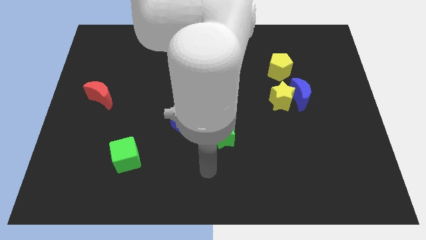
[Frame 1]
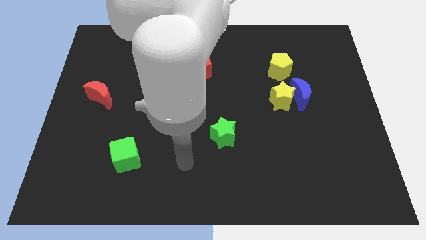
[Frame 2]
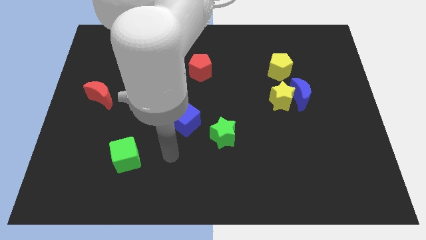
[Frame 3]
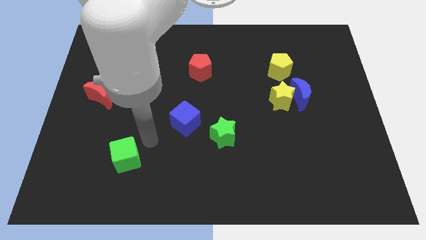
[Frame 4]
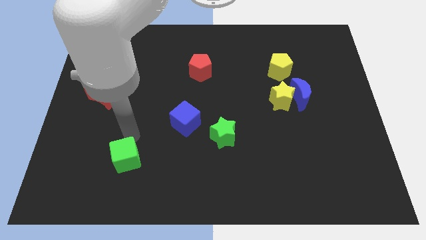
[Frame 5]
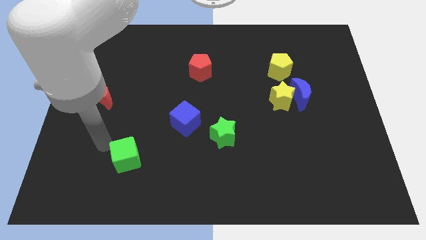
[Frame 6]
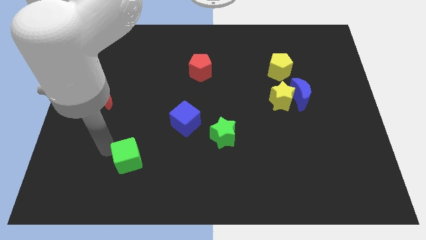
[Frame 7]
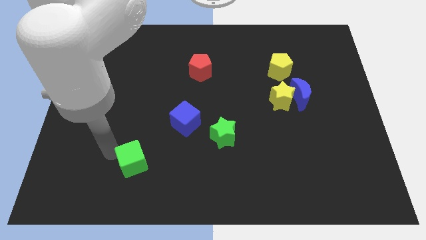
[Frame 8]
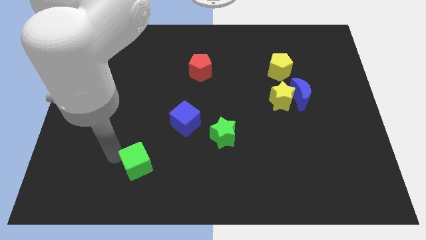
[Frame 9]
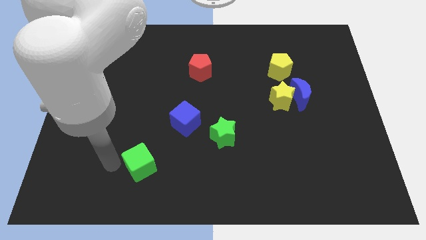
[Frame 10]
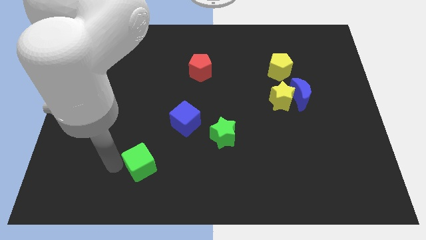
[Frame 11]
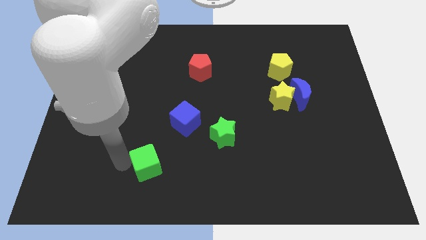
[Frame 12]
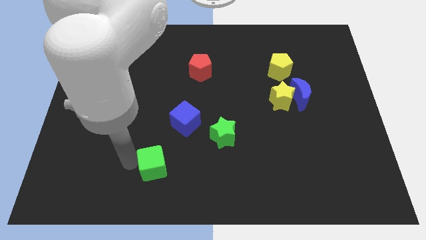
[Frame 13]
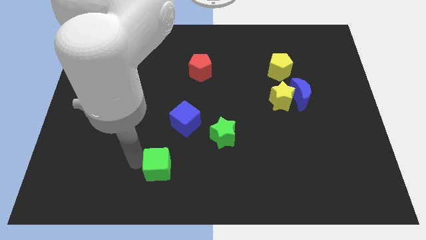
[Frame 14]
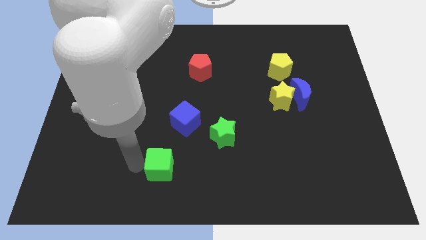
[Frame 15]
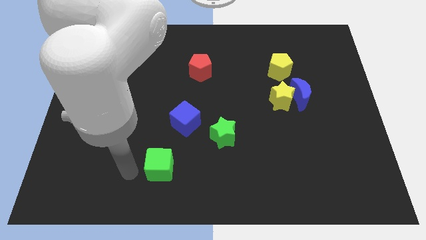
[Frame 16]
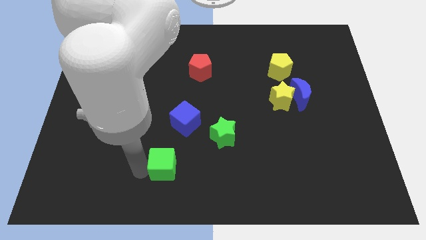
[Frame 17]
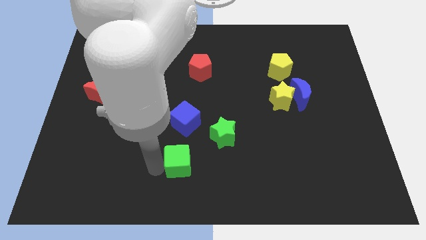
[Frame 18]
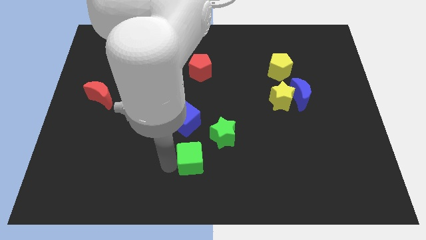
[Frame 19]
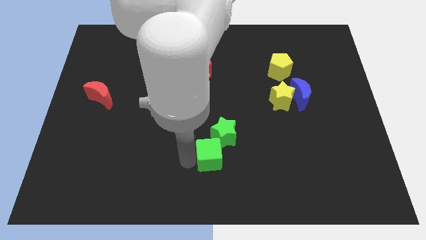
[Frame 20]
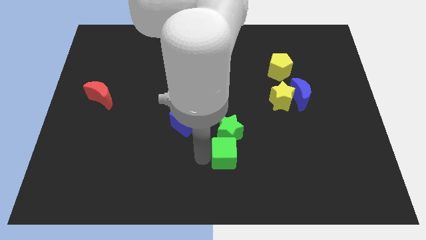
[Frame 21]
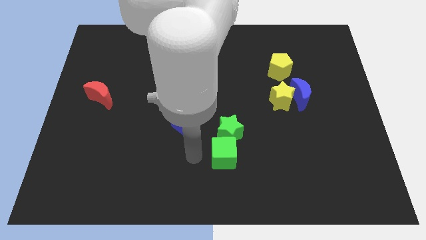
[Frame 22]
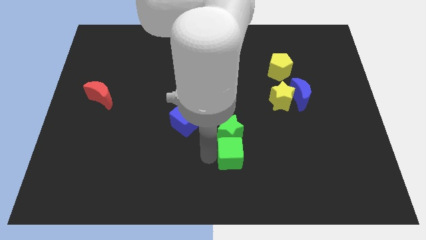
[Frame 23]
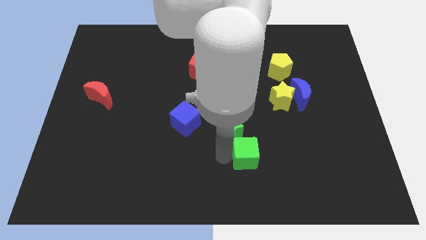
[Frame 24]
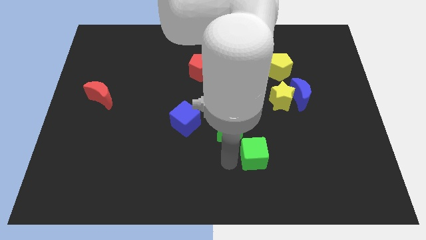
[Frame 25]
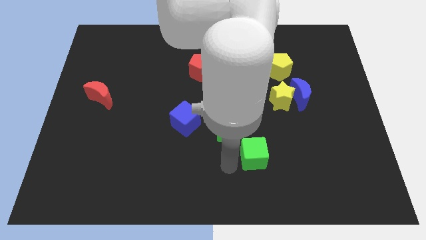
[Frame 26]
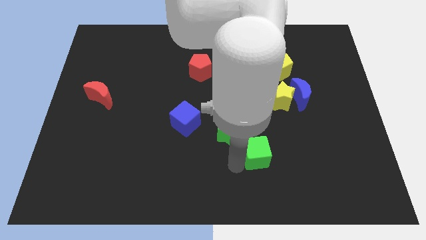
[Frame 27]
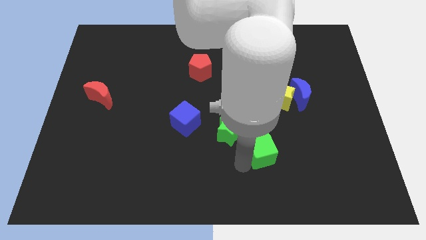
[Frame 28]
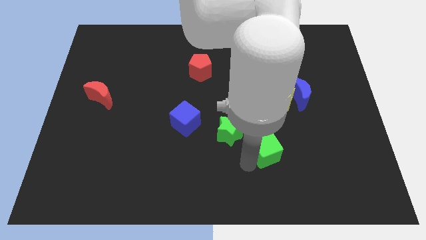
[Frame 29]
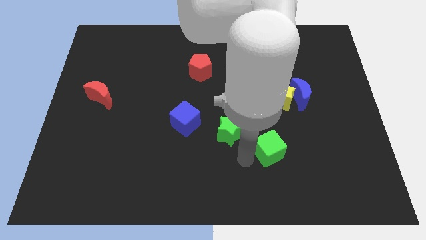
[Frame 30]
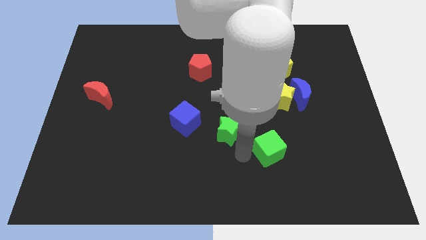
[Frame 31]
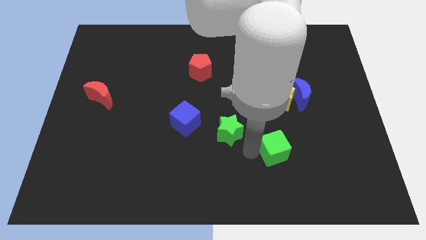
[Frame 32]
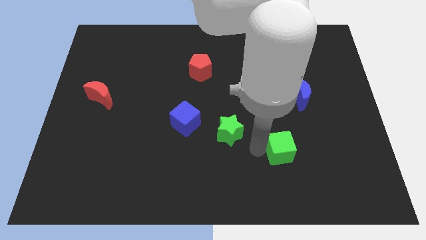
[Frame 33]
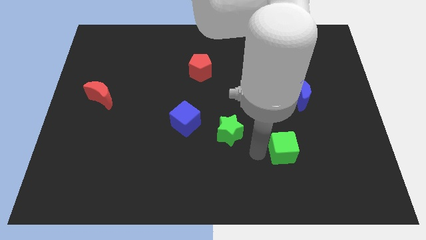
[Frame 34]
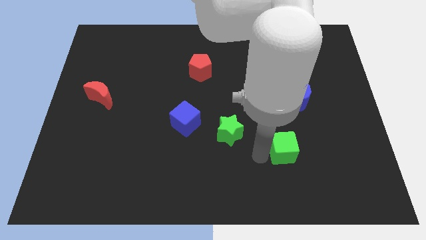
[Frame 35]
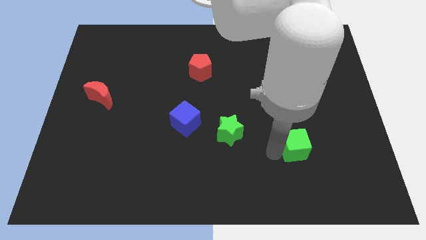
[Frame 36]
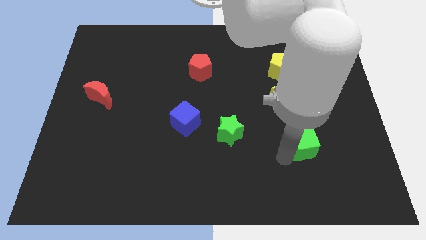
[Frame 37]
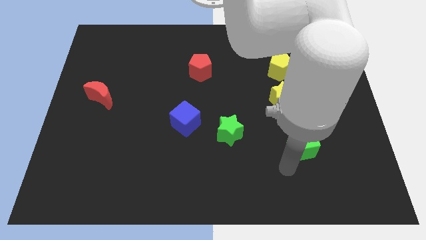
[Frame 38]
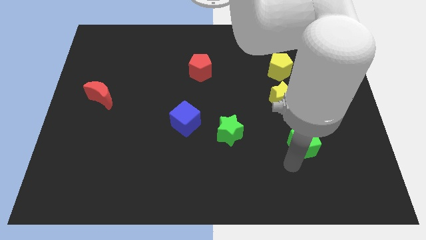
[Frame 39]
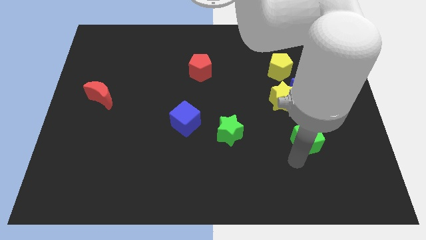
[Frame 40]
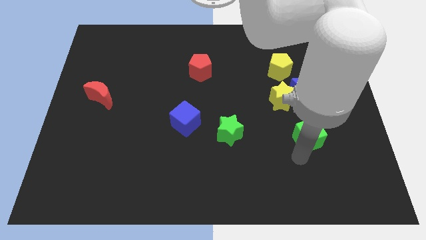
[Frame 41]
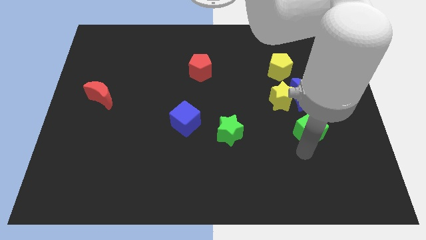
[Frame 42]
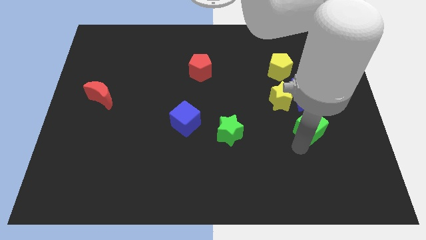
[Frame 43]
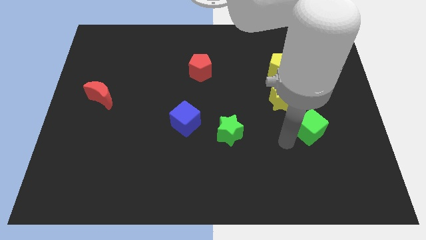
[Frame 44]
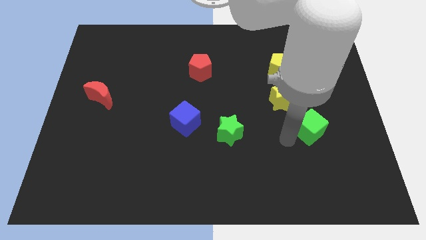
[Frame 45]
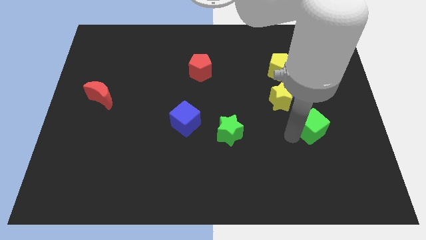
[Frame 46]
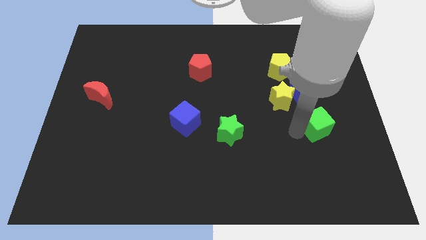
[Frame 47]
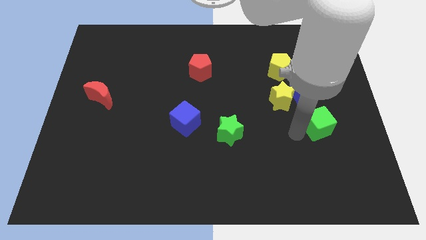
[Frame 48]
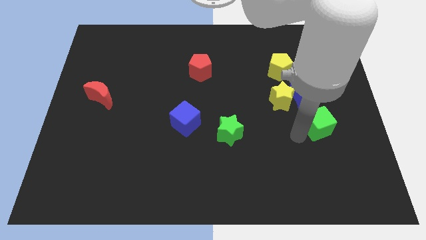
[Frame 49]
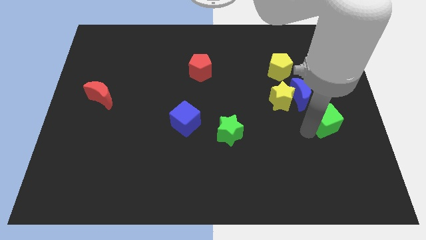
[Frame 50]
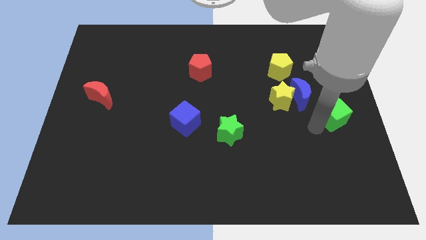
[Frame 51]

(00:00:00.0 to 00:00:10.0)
slide the green cube to the right side of the board

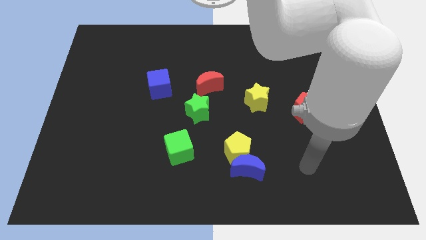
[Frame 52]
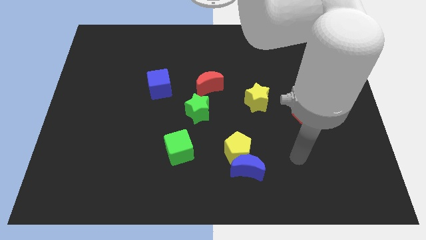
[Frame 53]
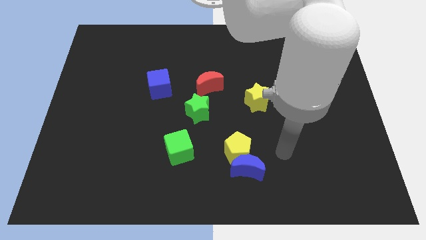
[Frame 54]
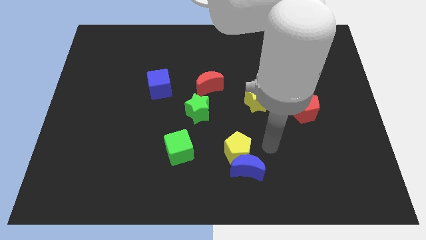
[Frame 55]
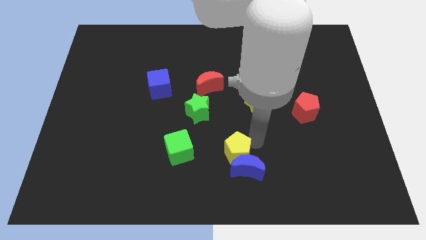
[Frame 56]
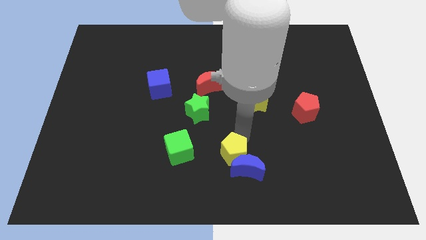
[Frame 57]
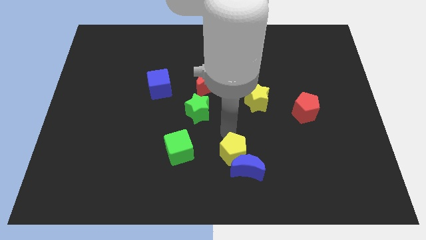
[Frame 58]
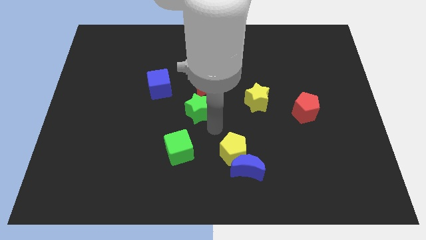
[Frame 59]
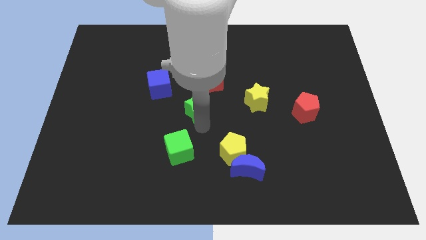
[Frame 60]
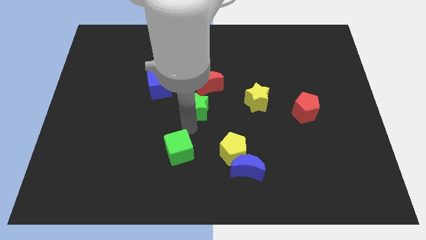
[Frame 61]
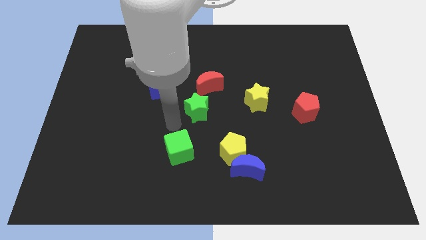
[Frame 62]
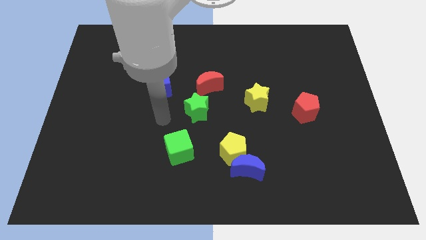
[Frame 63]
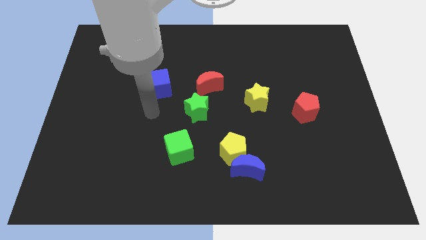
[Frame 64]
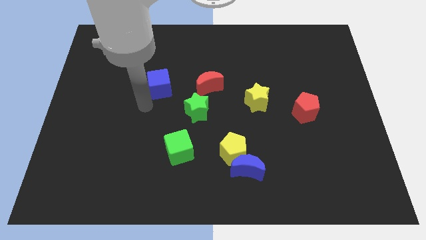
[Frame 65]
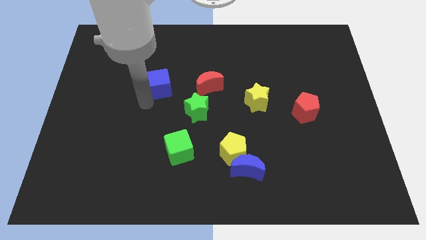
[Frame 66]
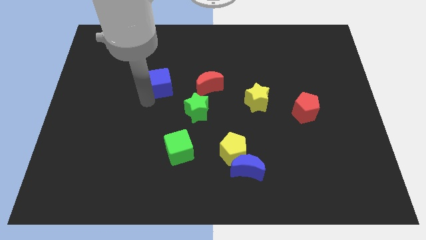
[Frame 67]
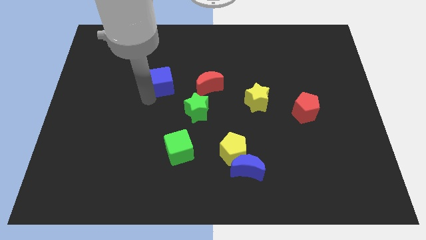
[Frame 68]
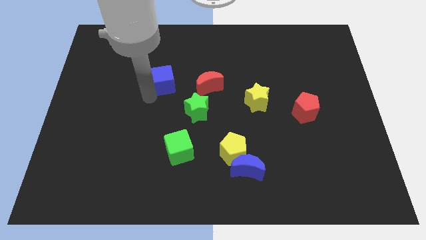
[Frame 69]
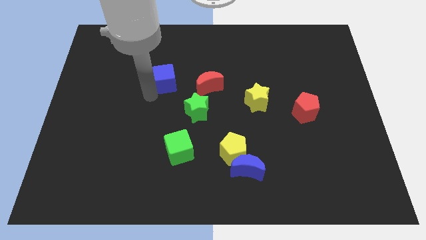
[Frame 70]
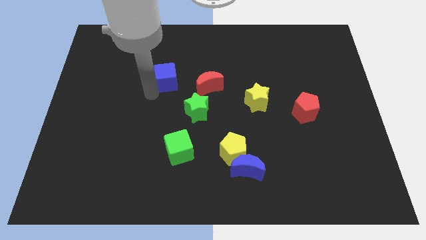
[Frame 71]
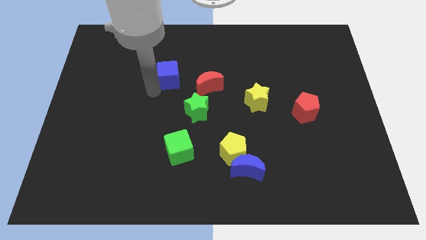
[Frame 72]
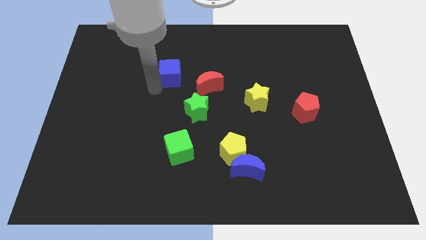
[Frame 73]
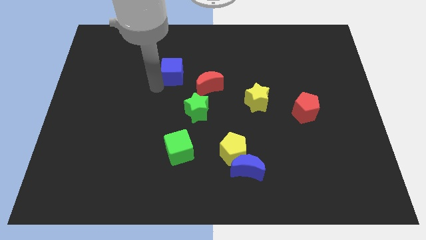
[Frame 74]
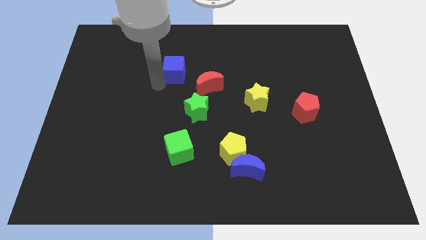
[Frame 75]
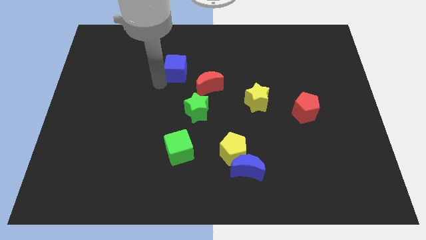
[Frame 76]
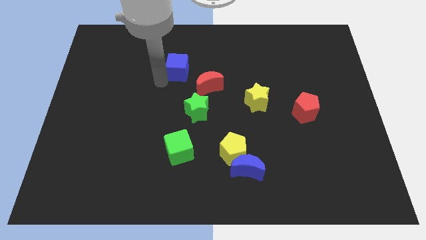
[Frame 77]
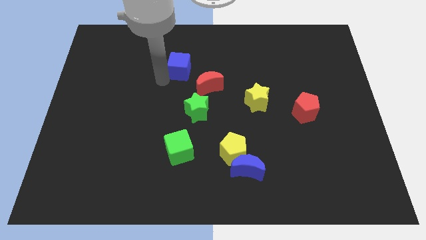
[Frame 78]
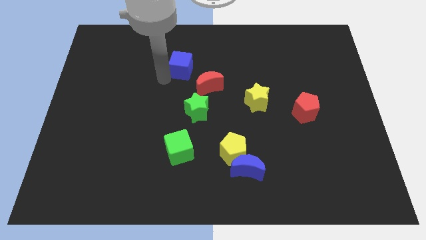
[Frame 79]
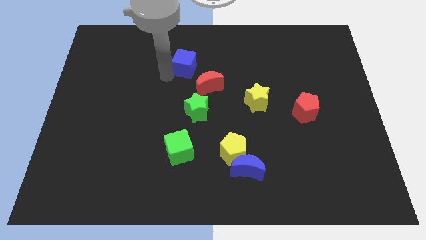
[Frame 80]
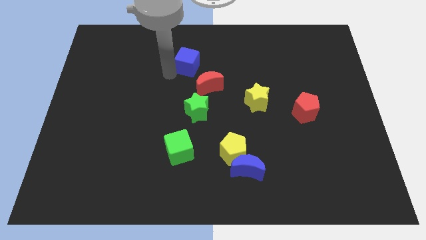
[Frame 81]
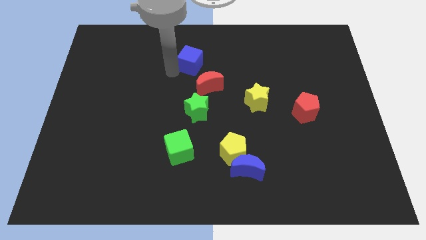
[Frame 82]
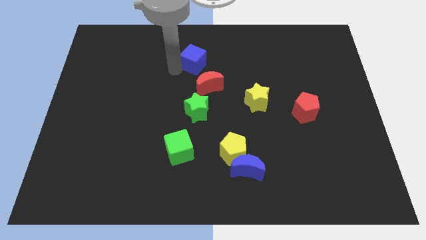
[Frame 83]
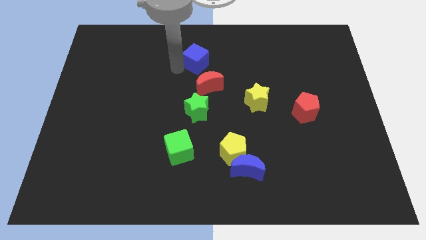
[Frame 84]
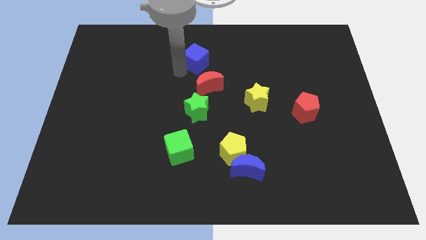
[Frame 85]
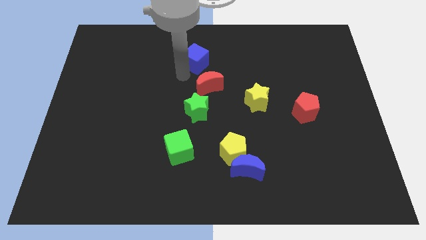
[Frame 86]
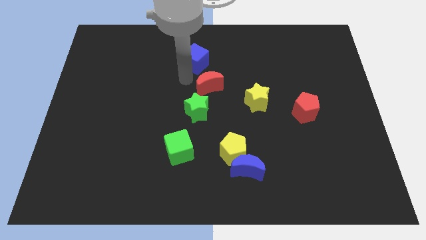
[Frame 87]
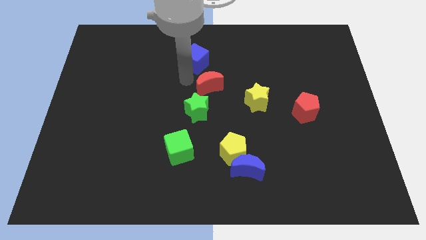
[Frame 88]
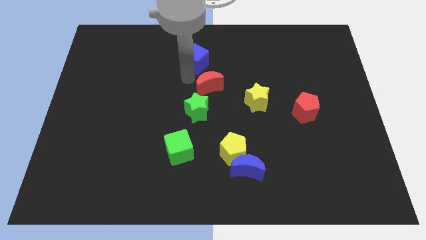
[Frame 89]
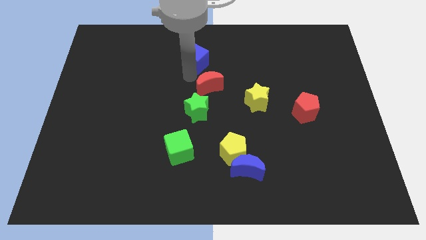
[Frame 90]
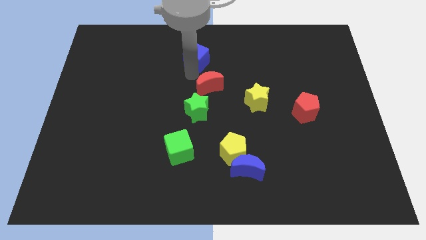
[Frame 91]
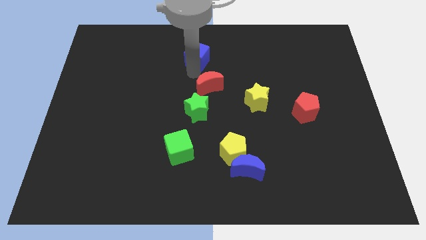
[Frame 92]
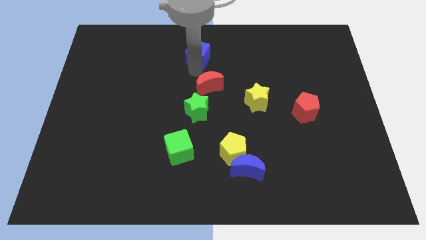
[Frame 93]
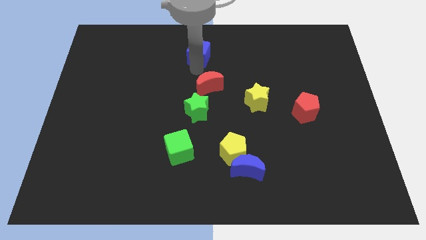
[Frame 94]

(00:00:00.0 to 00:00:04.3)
push the blue cube to the top side
